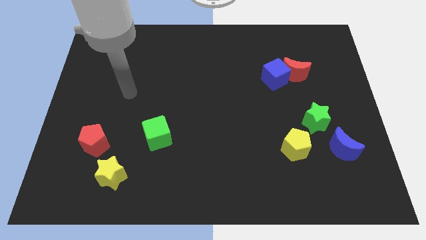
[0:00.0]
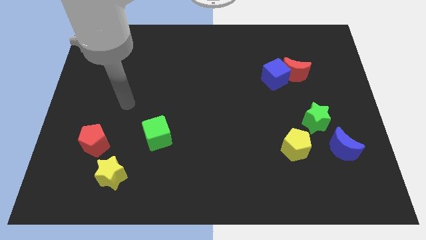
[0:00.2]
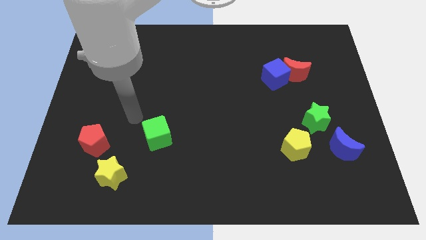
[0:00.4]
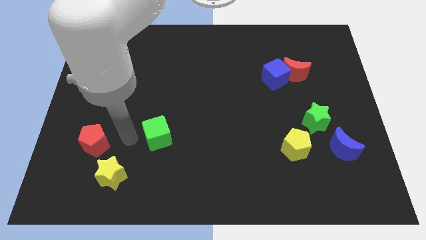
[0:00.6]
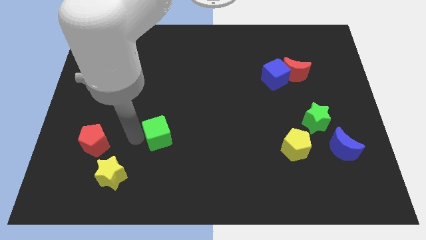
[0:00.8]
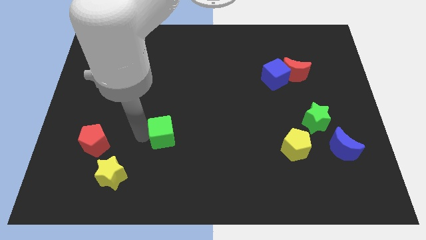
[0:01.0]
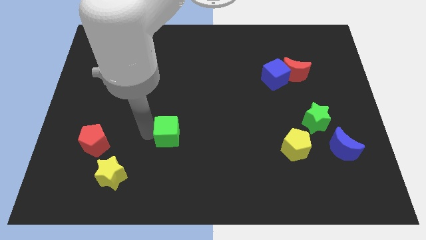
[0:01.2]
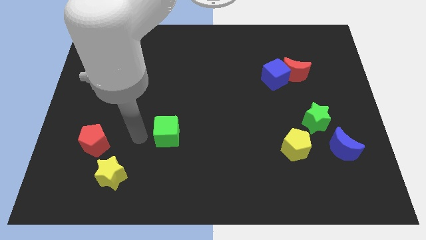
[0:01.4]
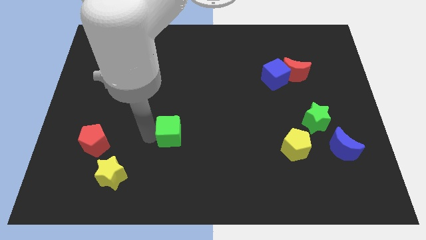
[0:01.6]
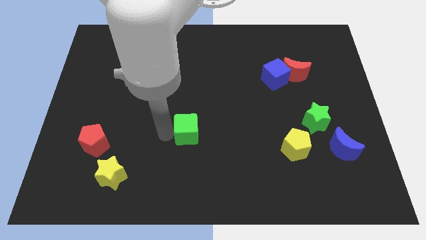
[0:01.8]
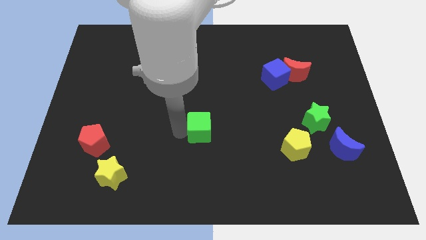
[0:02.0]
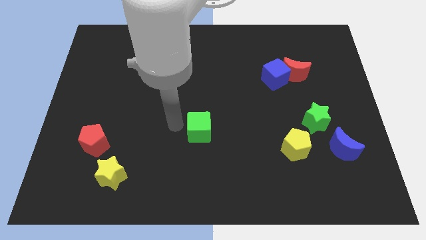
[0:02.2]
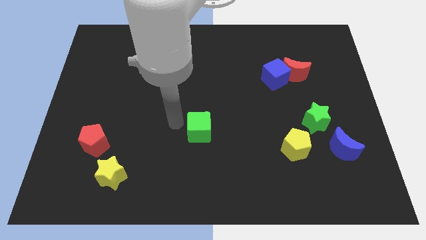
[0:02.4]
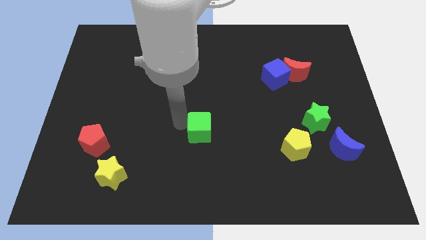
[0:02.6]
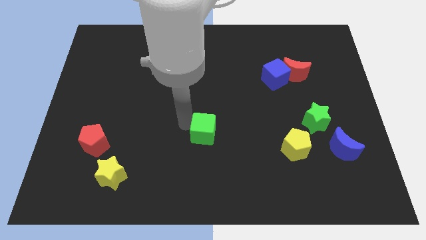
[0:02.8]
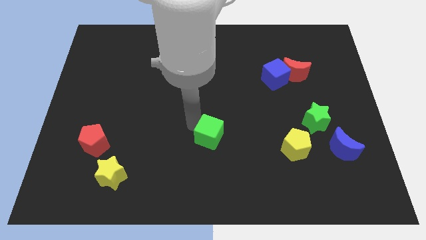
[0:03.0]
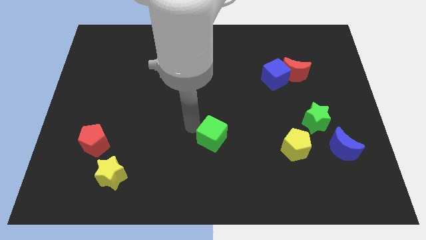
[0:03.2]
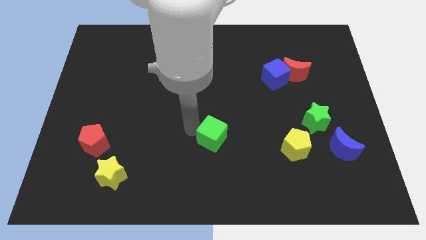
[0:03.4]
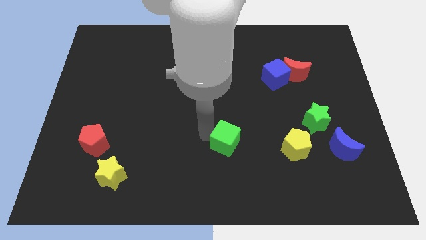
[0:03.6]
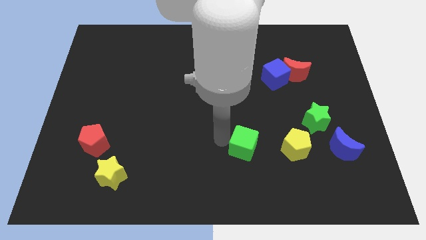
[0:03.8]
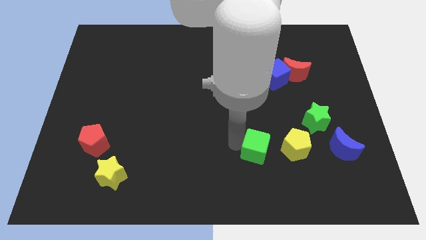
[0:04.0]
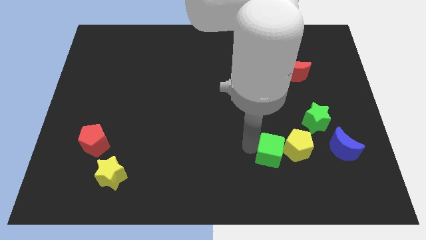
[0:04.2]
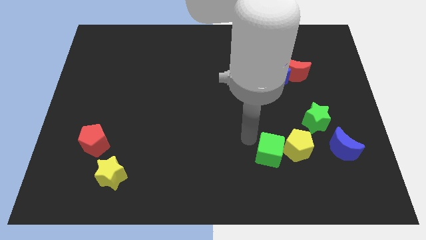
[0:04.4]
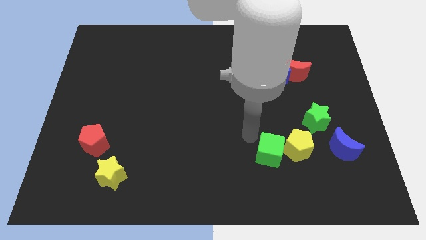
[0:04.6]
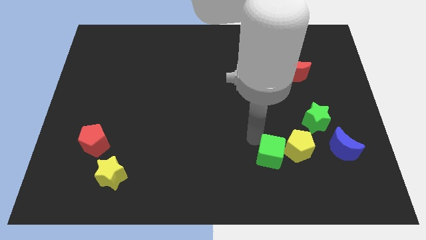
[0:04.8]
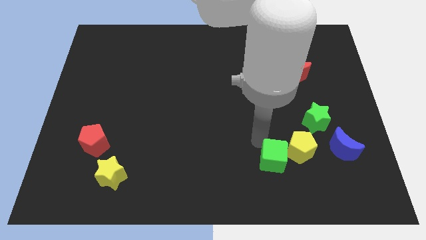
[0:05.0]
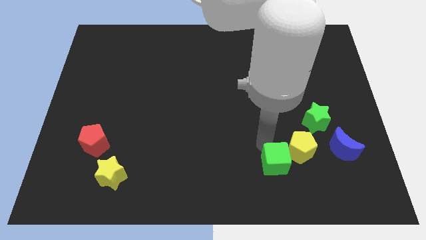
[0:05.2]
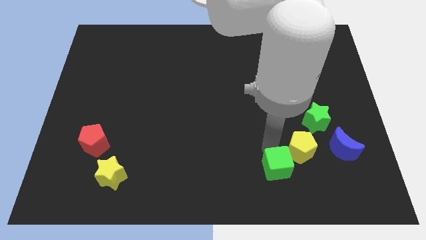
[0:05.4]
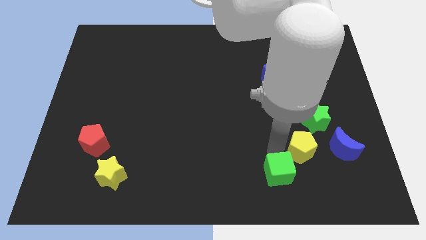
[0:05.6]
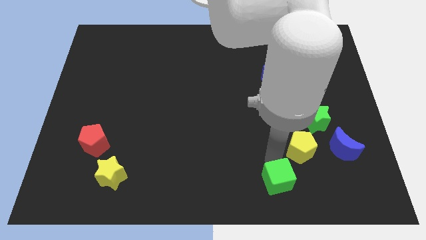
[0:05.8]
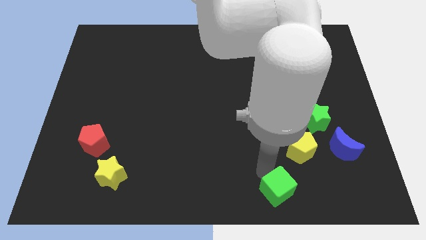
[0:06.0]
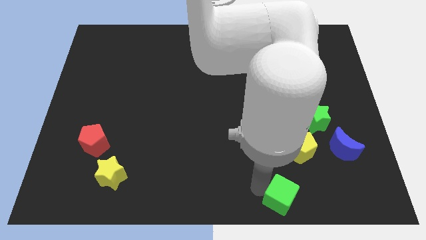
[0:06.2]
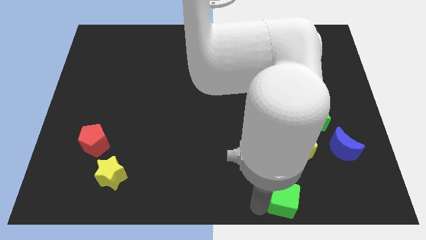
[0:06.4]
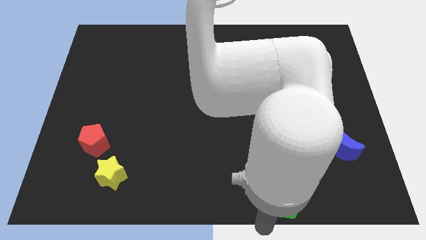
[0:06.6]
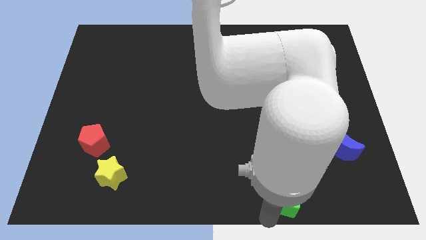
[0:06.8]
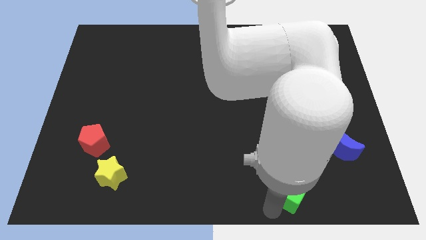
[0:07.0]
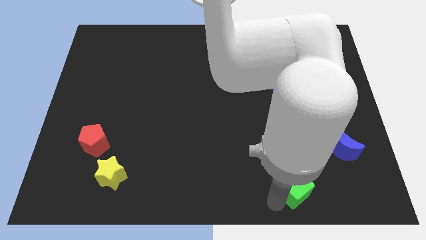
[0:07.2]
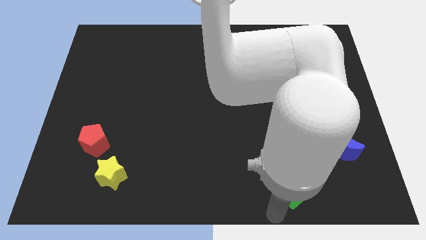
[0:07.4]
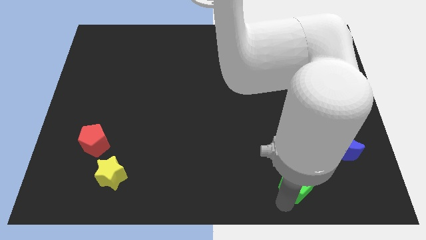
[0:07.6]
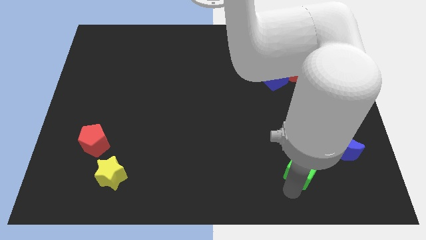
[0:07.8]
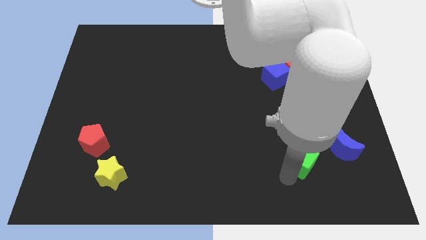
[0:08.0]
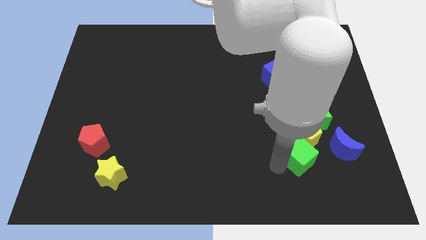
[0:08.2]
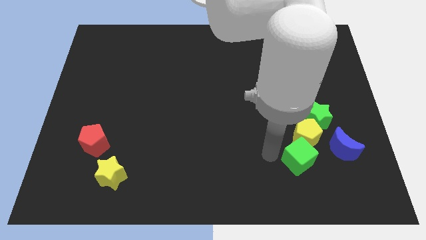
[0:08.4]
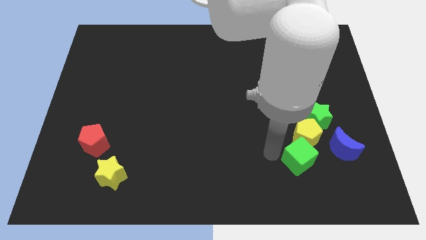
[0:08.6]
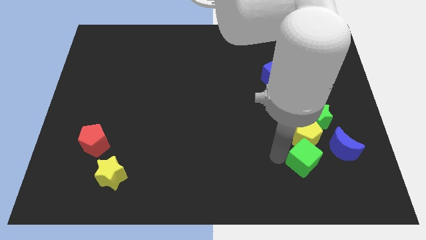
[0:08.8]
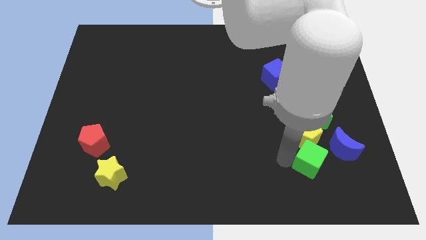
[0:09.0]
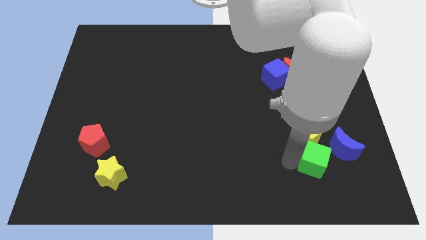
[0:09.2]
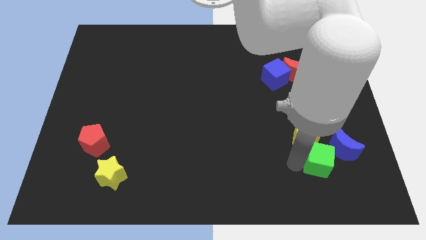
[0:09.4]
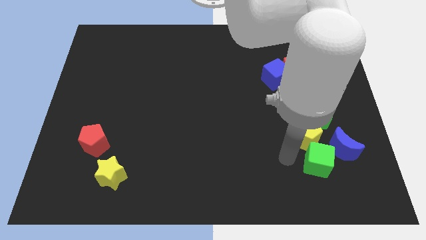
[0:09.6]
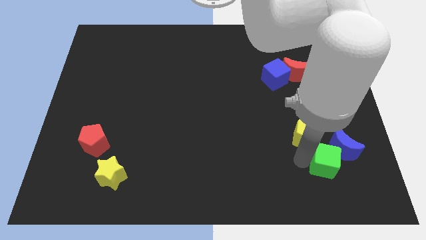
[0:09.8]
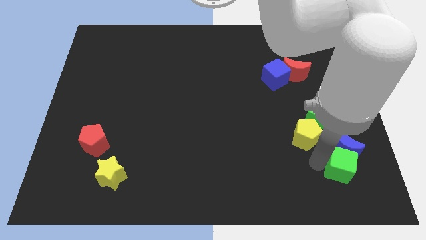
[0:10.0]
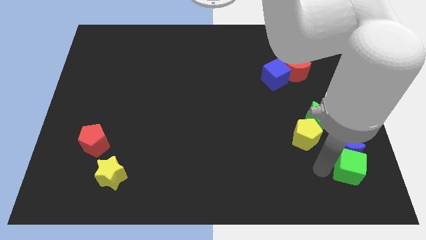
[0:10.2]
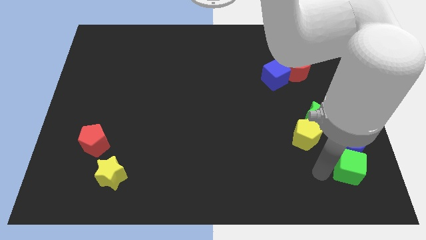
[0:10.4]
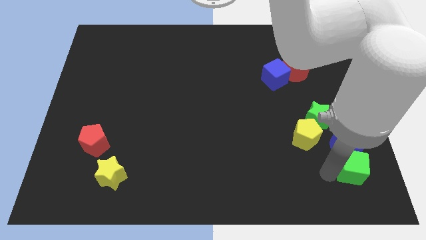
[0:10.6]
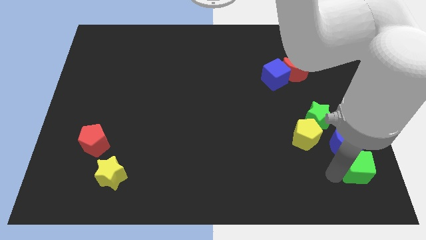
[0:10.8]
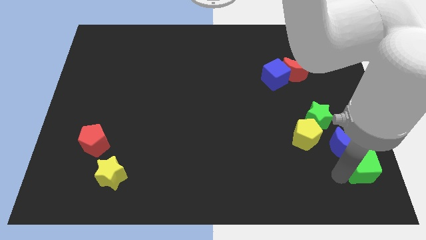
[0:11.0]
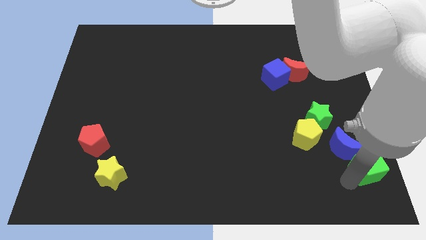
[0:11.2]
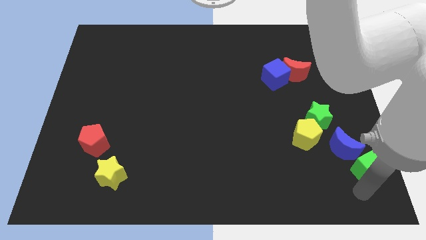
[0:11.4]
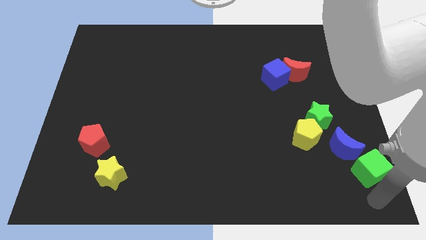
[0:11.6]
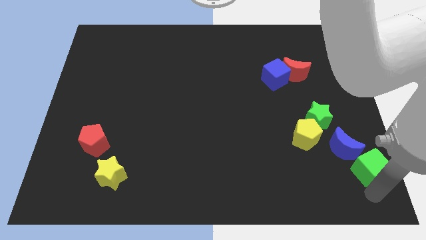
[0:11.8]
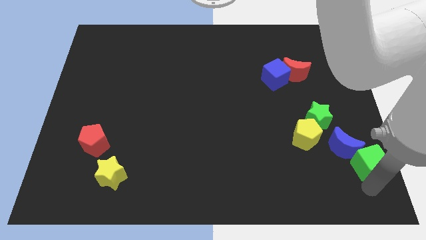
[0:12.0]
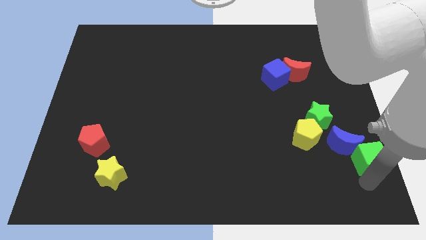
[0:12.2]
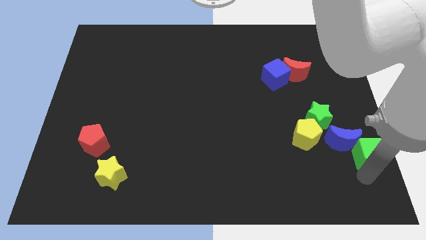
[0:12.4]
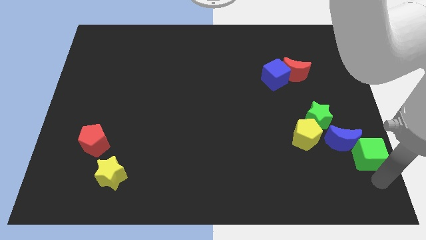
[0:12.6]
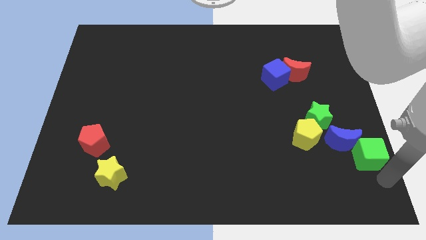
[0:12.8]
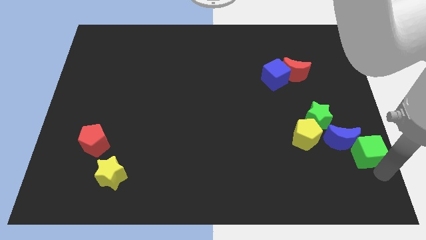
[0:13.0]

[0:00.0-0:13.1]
push the green cube right of the yellow pentagon
